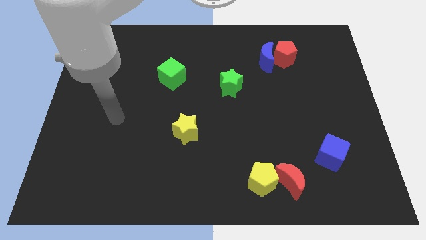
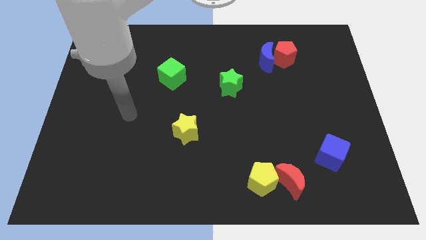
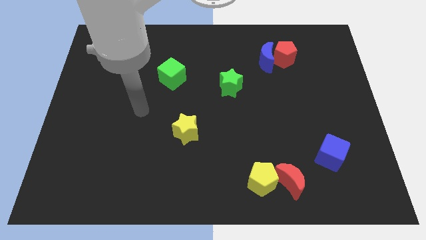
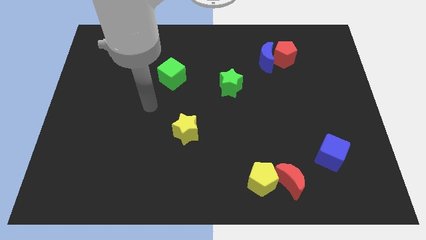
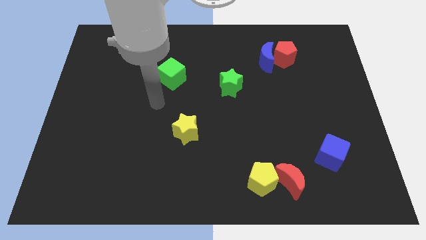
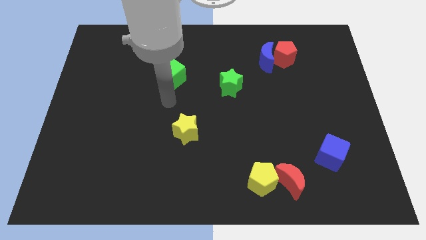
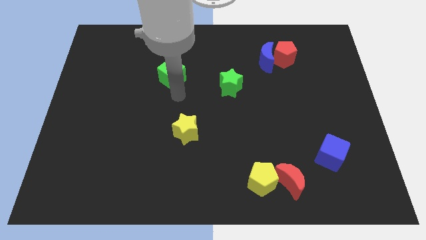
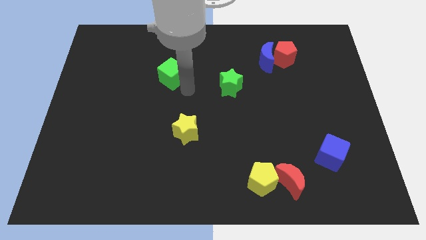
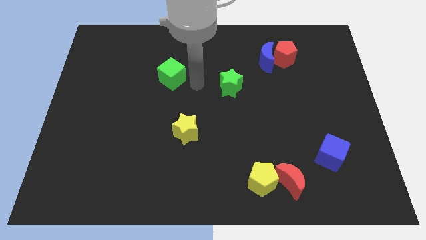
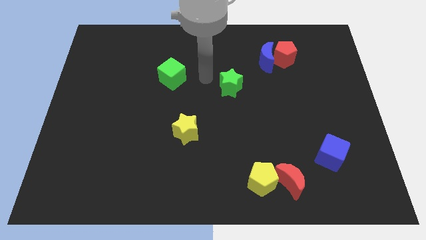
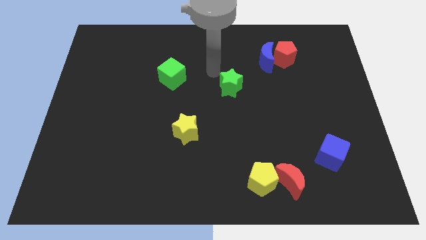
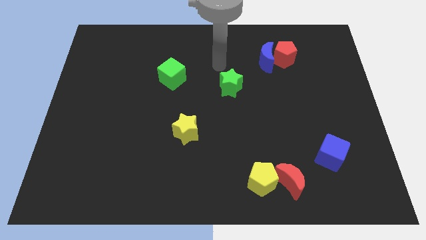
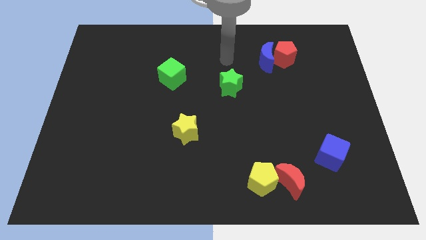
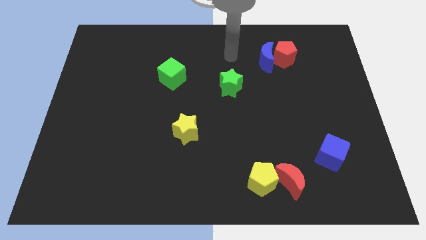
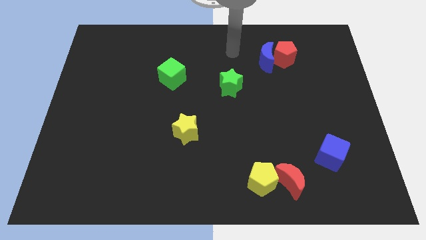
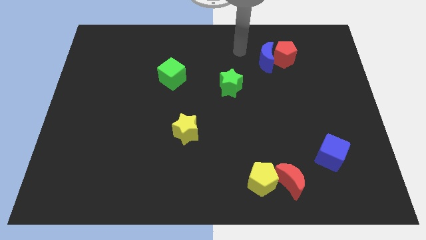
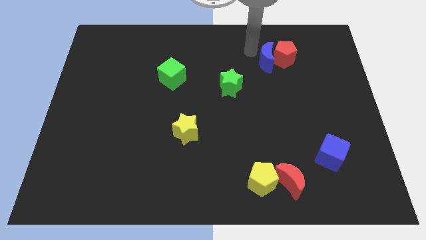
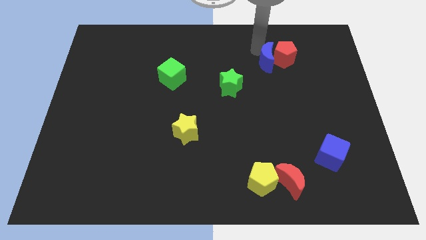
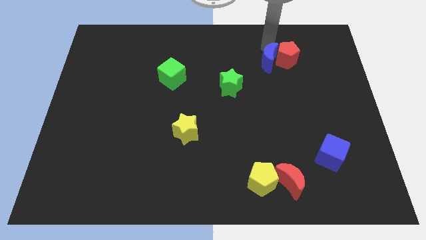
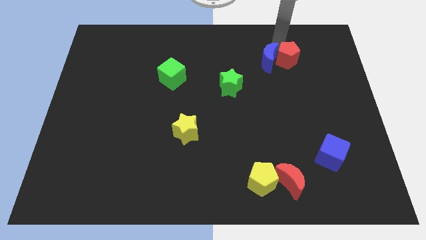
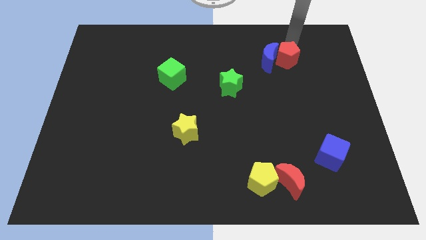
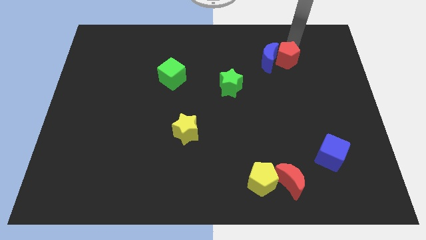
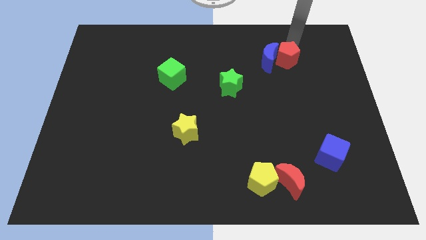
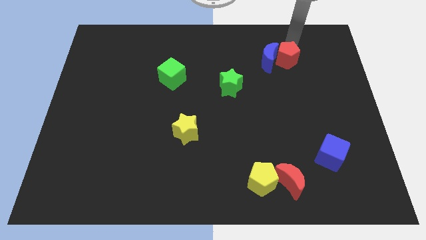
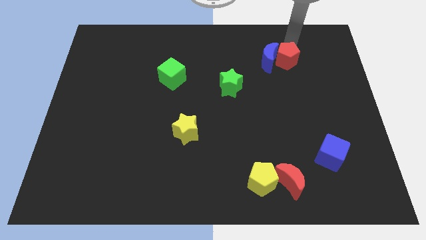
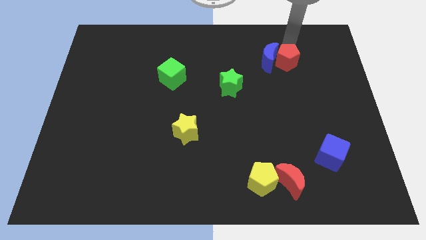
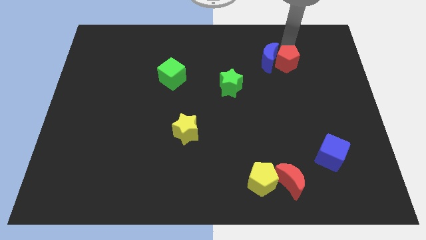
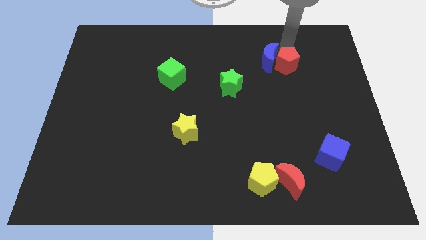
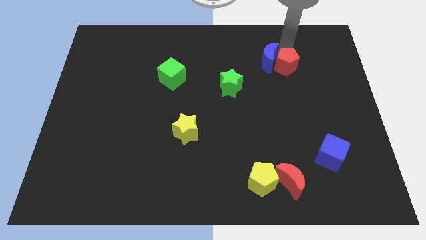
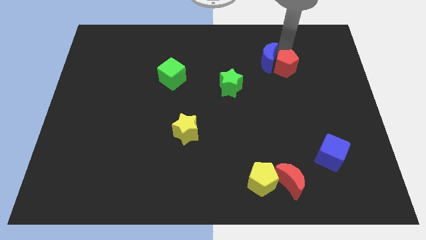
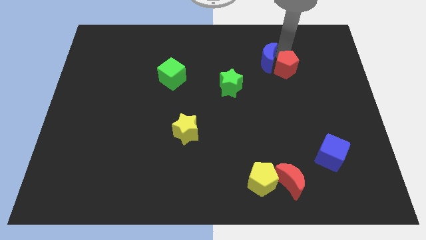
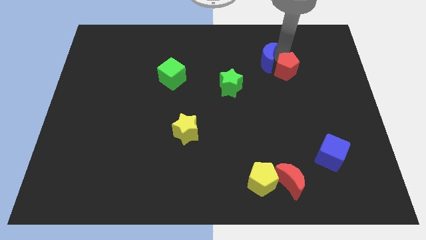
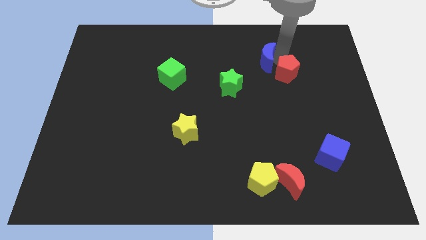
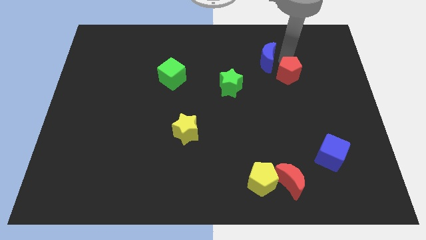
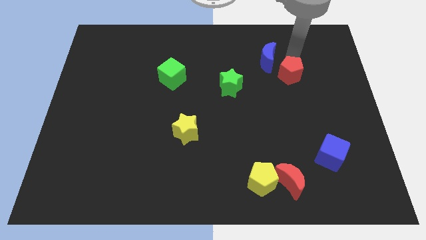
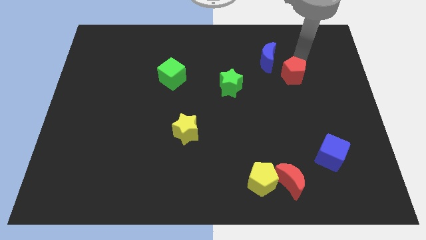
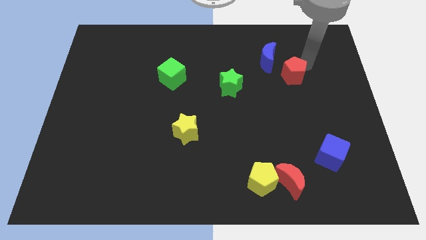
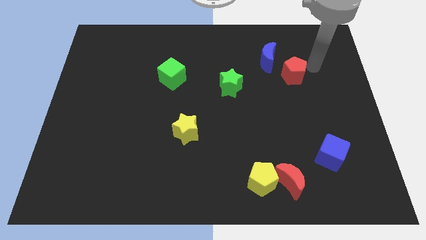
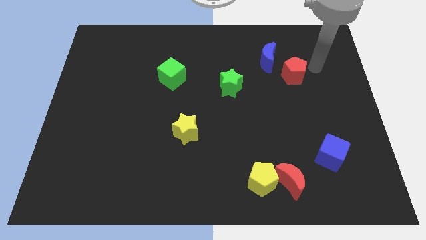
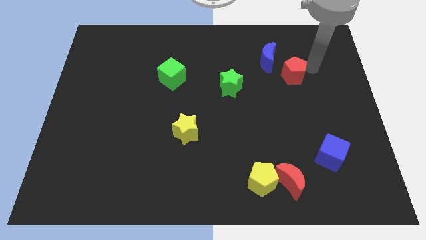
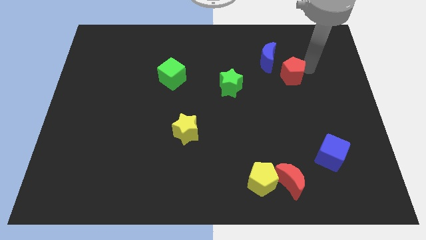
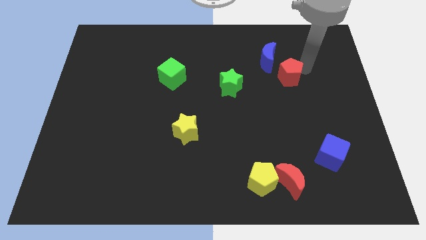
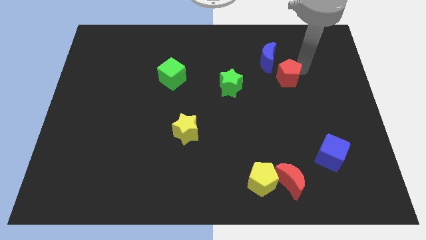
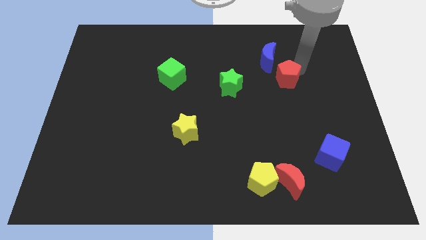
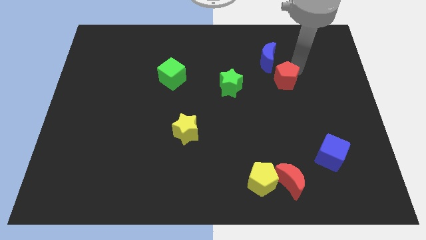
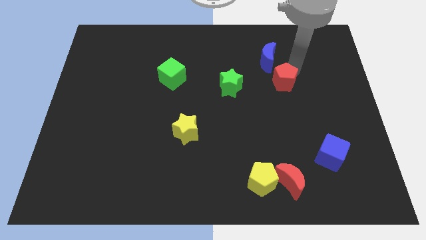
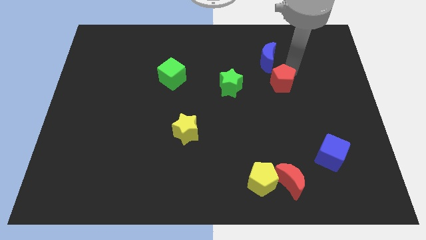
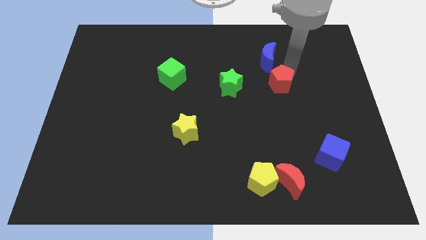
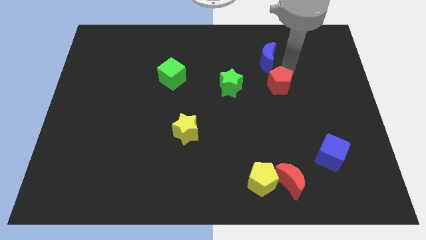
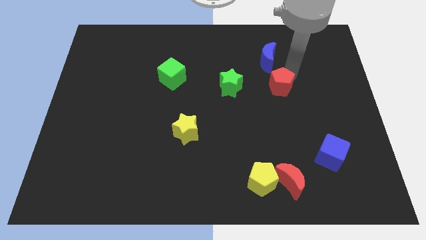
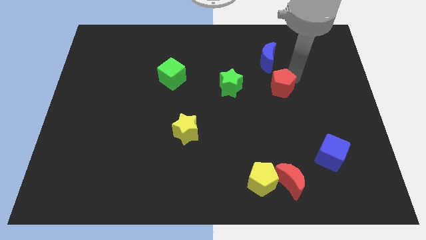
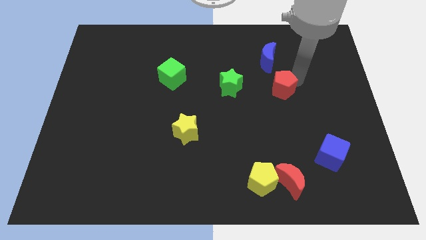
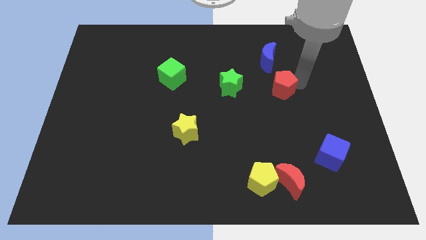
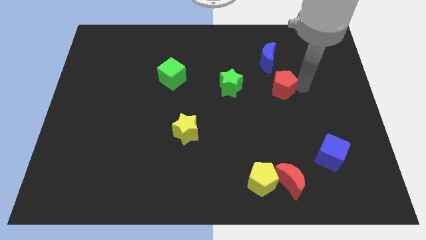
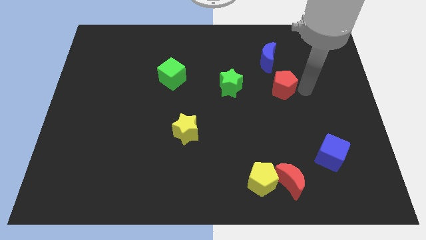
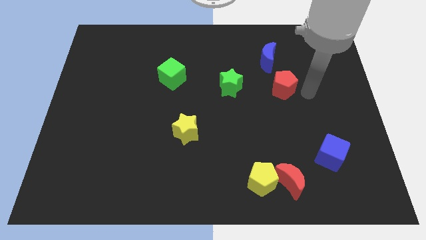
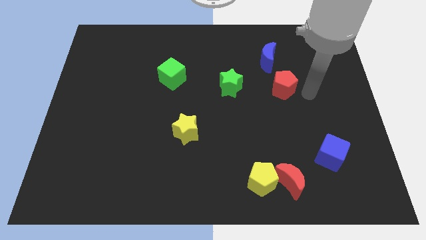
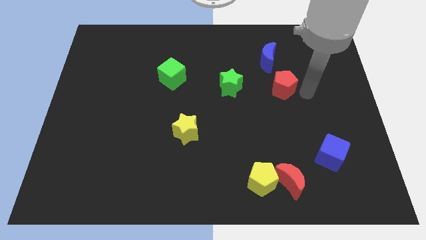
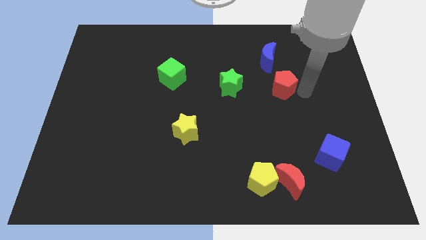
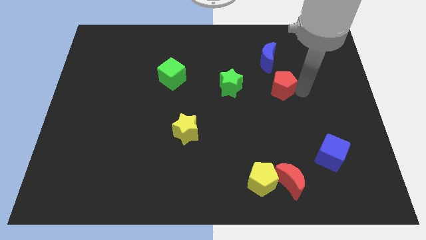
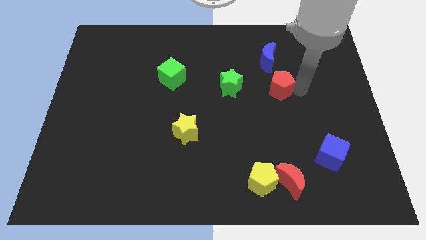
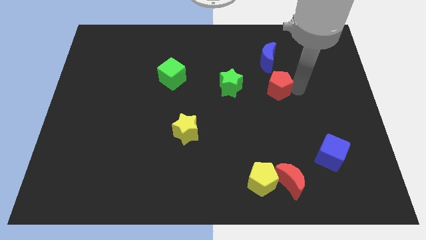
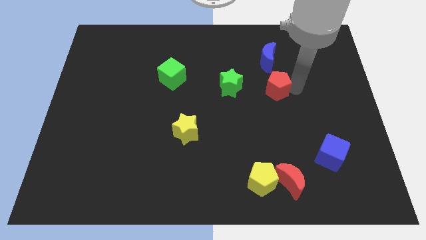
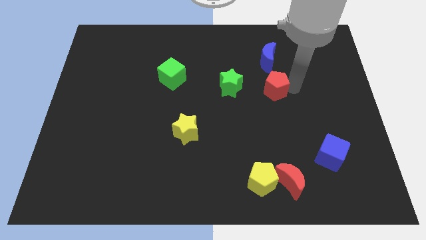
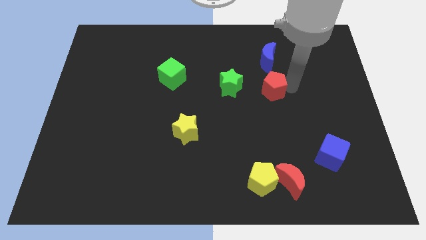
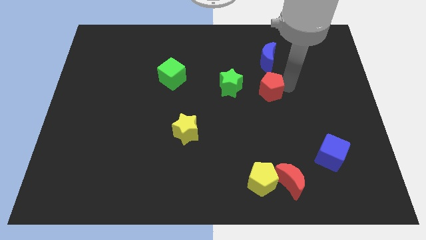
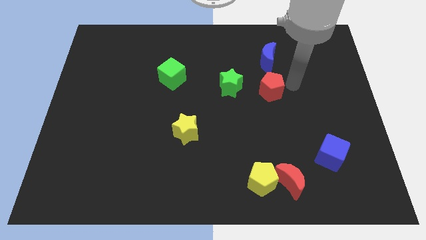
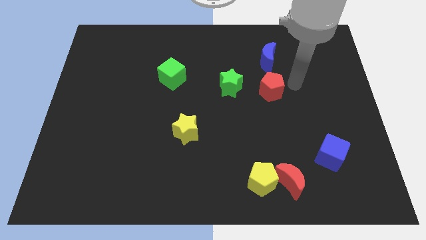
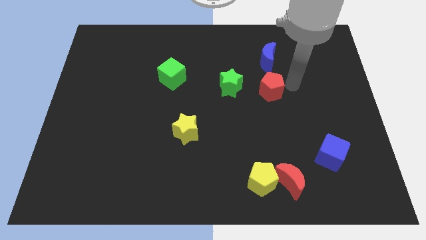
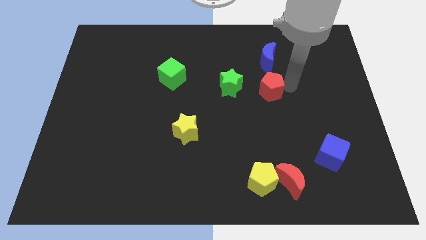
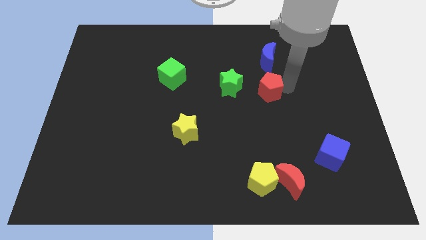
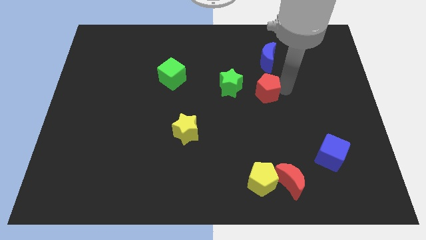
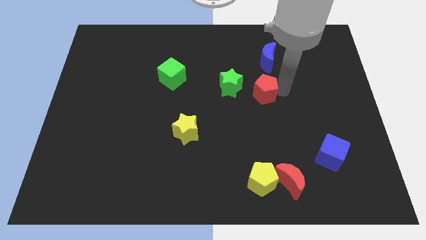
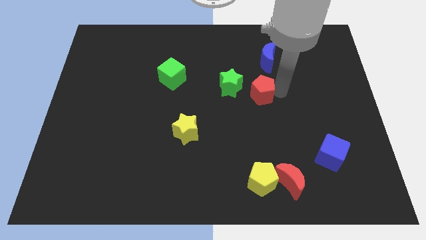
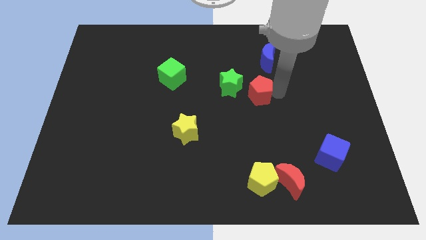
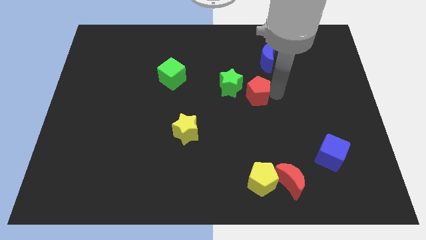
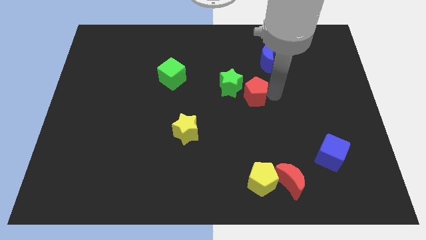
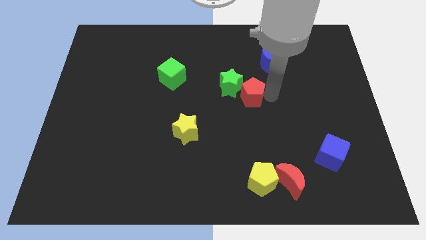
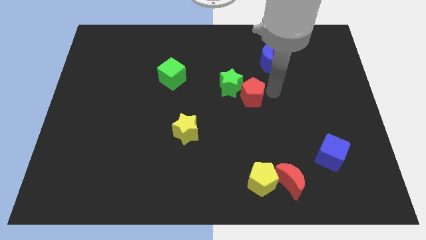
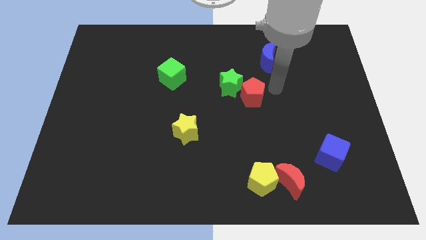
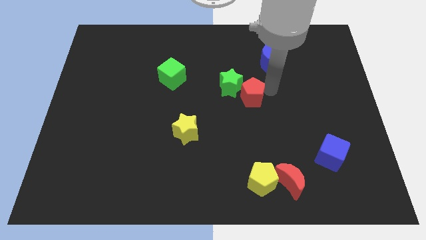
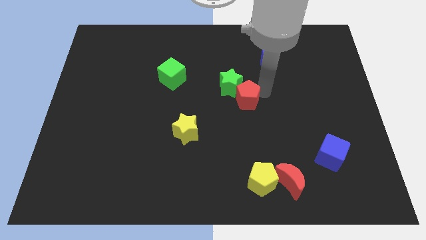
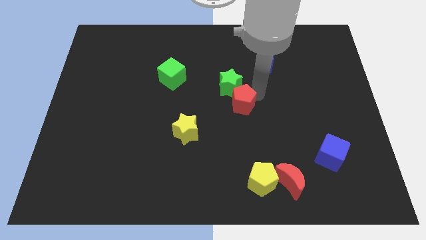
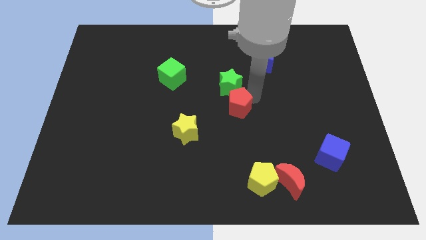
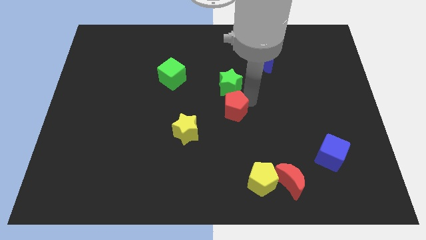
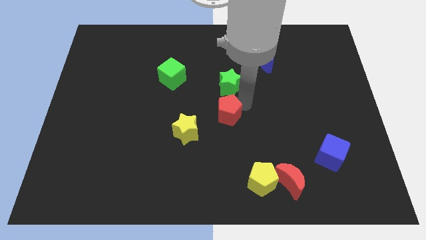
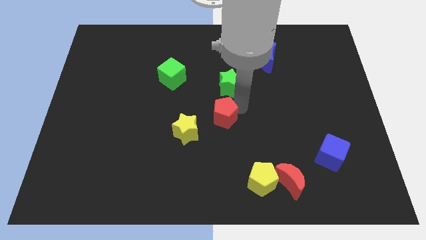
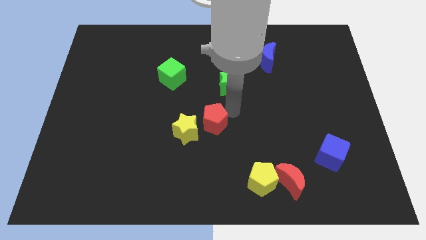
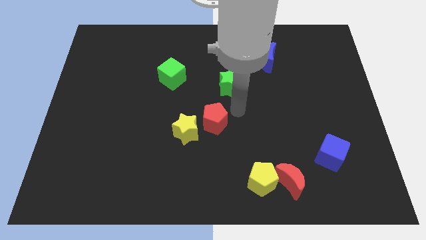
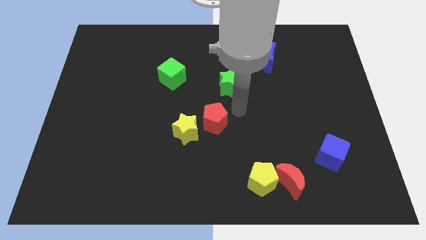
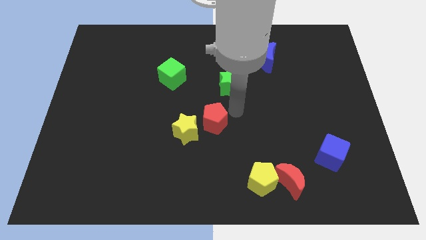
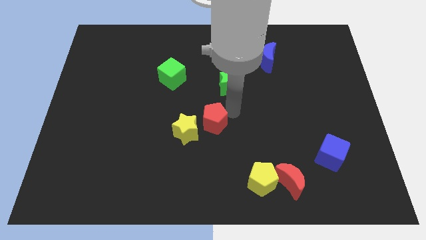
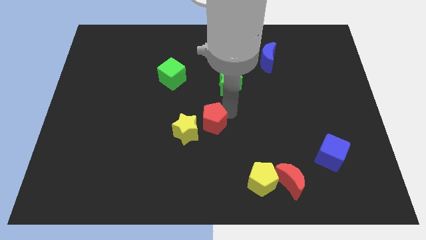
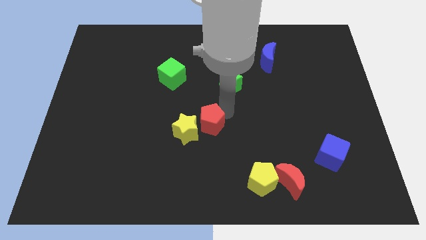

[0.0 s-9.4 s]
move the red pentagon towards the yellow star
